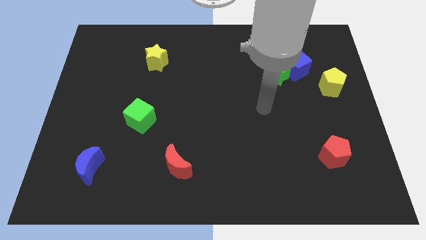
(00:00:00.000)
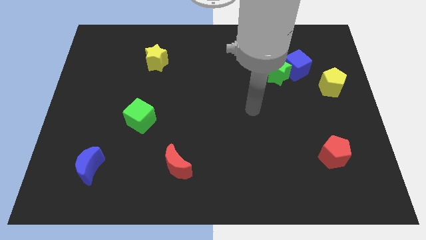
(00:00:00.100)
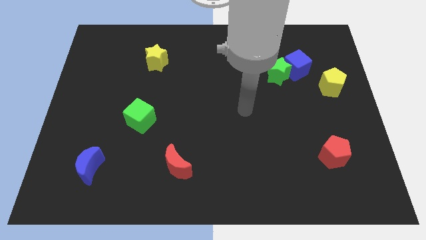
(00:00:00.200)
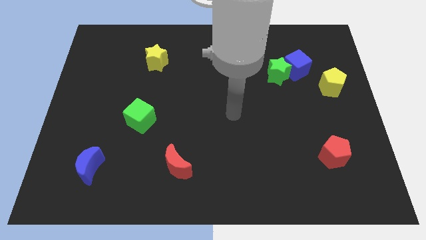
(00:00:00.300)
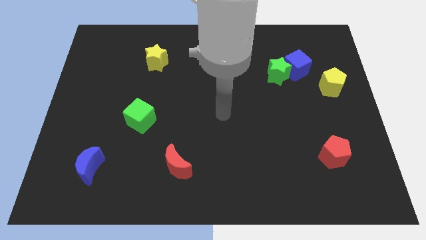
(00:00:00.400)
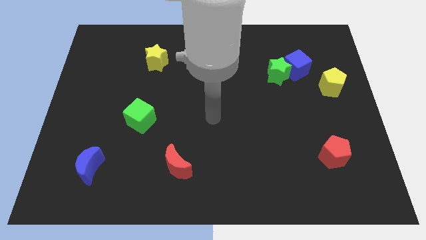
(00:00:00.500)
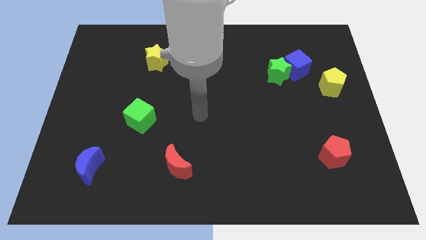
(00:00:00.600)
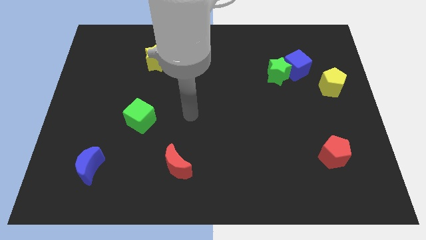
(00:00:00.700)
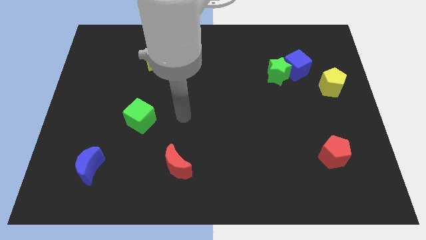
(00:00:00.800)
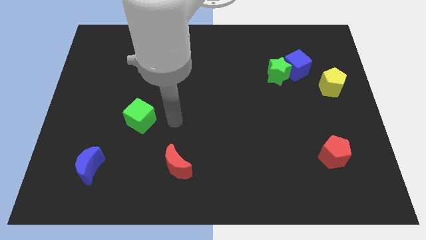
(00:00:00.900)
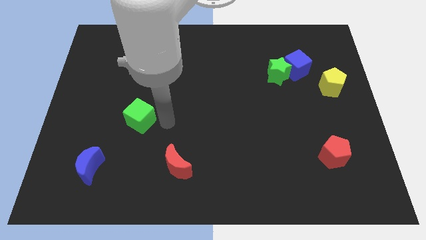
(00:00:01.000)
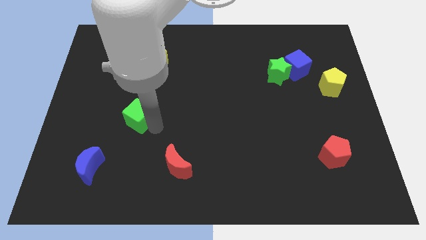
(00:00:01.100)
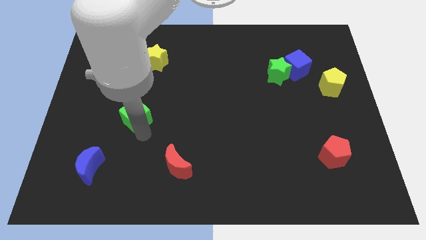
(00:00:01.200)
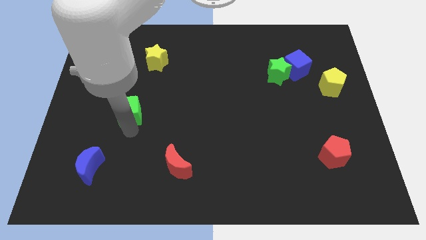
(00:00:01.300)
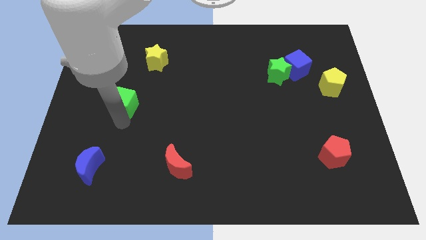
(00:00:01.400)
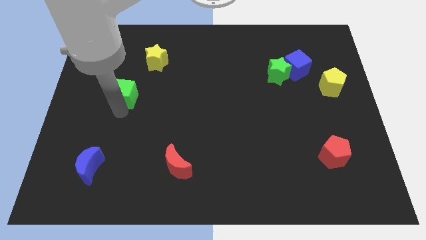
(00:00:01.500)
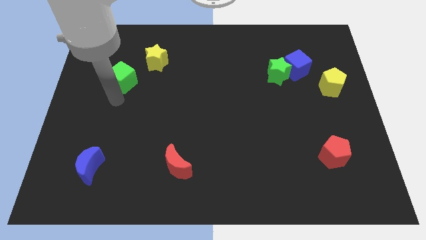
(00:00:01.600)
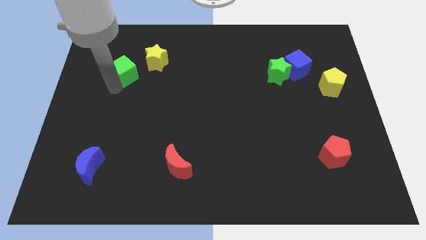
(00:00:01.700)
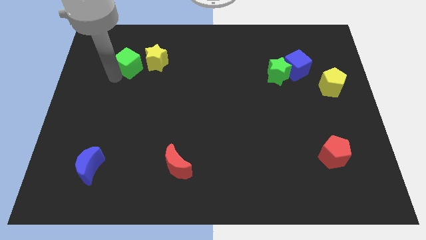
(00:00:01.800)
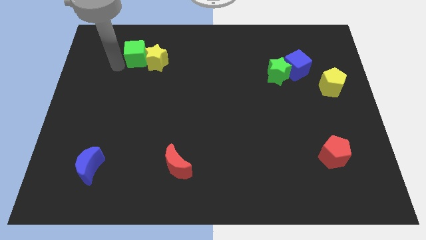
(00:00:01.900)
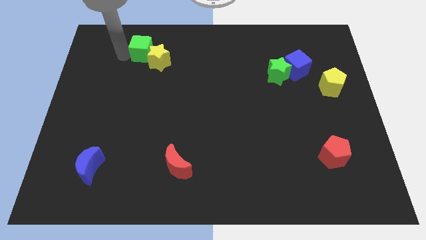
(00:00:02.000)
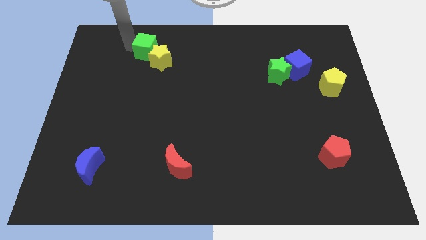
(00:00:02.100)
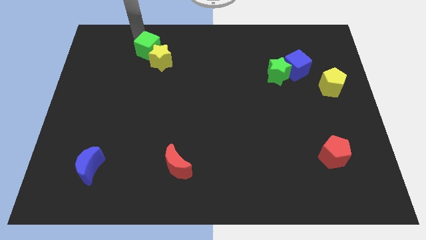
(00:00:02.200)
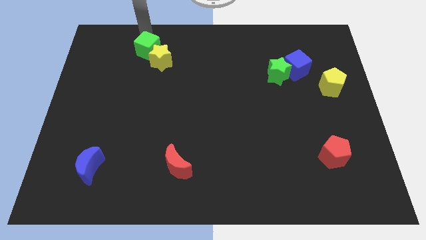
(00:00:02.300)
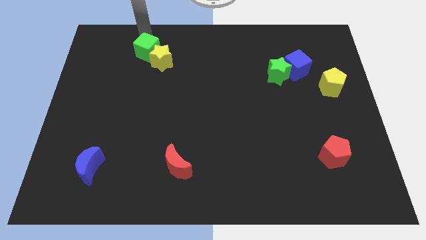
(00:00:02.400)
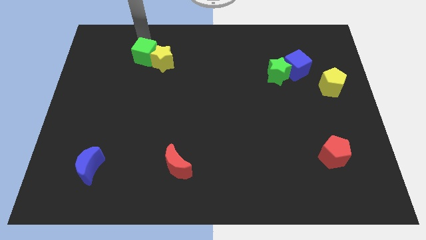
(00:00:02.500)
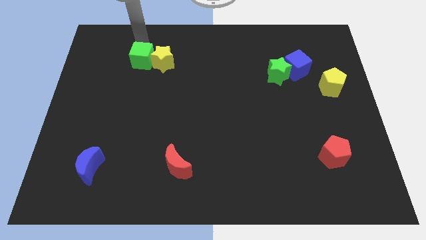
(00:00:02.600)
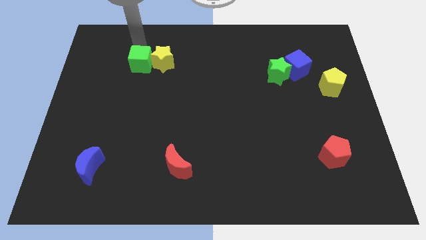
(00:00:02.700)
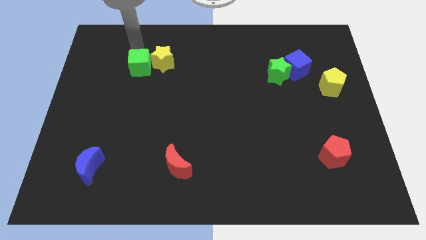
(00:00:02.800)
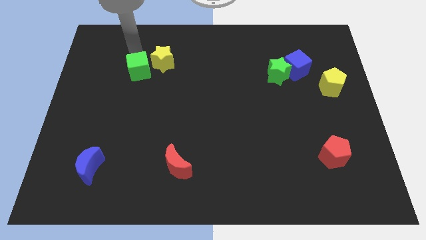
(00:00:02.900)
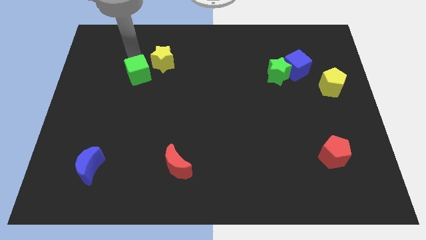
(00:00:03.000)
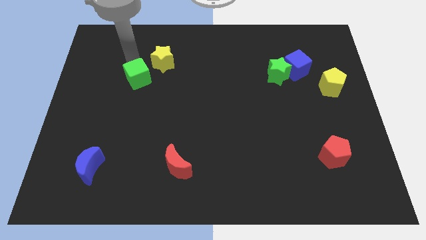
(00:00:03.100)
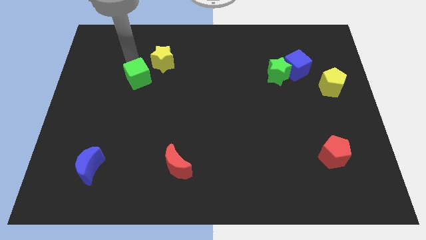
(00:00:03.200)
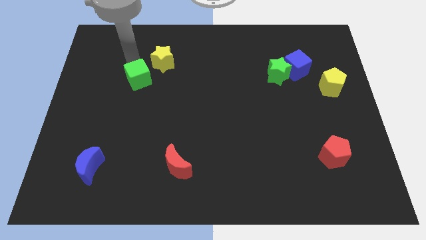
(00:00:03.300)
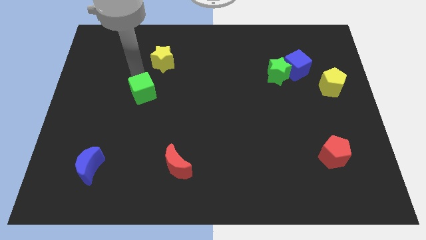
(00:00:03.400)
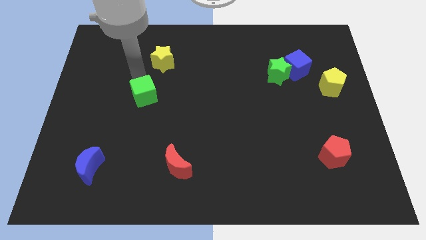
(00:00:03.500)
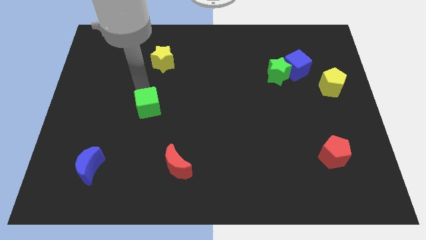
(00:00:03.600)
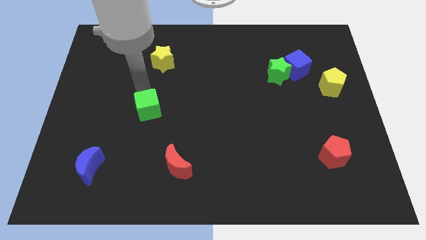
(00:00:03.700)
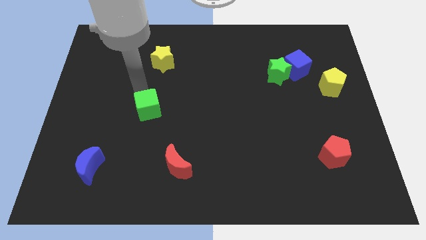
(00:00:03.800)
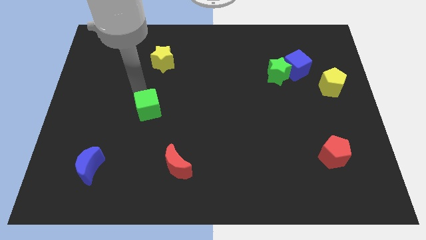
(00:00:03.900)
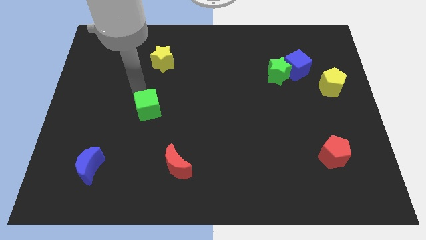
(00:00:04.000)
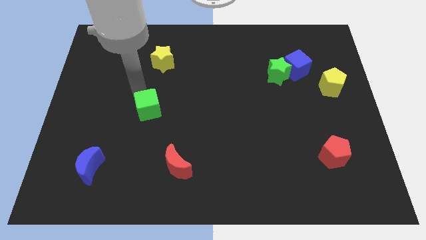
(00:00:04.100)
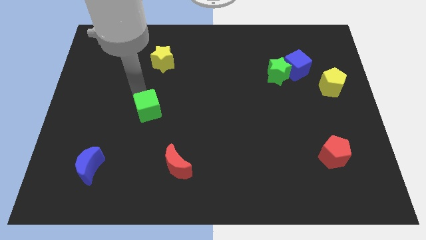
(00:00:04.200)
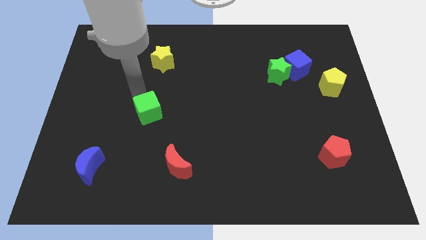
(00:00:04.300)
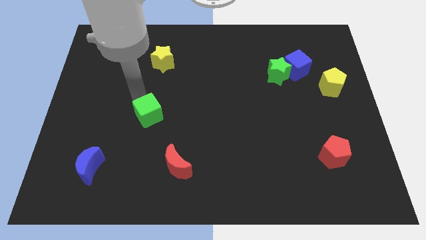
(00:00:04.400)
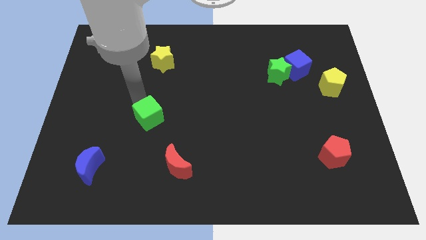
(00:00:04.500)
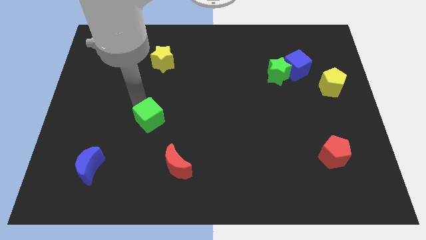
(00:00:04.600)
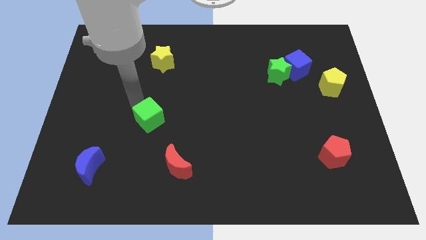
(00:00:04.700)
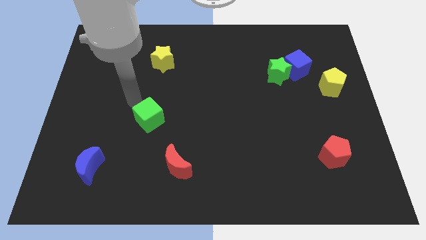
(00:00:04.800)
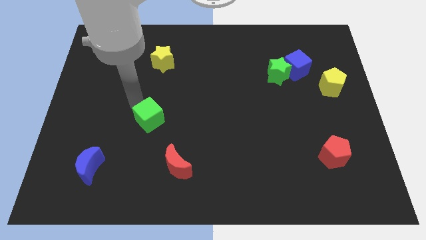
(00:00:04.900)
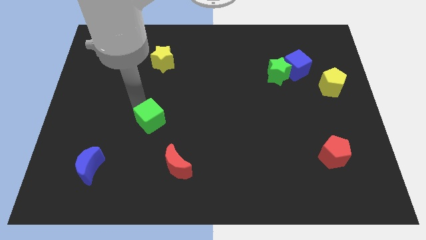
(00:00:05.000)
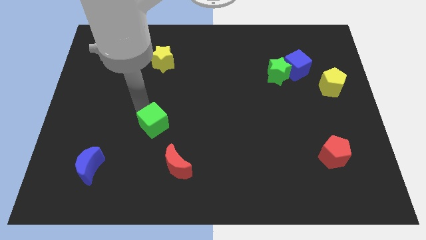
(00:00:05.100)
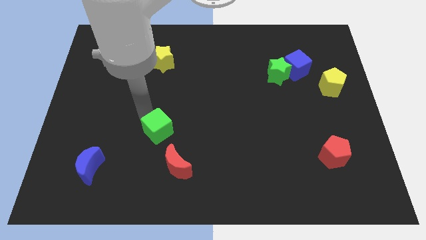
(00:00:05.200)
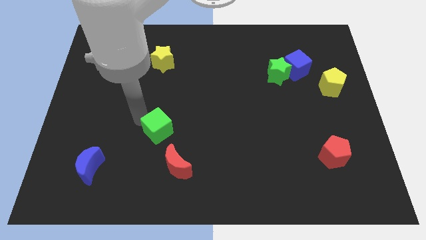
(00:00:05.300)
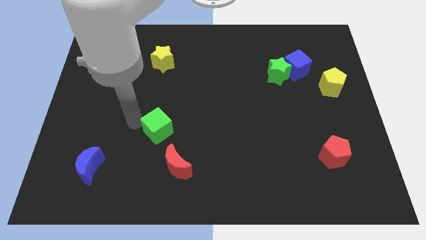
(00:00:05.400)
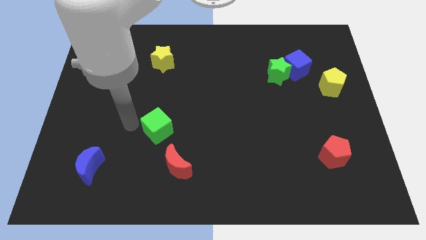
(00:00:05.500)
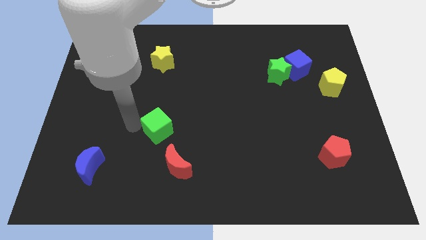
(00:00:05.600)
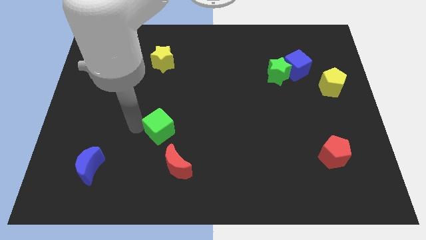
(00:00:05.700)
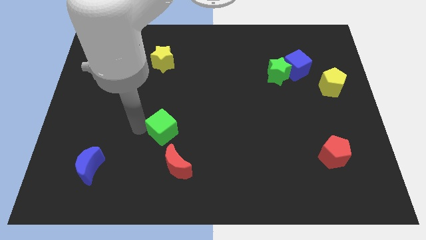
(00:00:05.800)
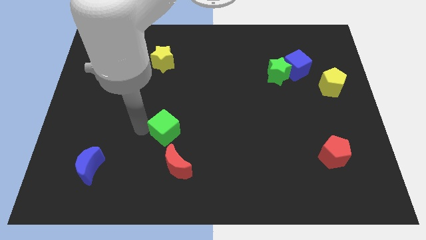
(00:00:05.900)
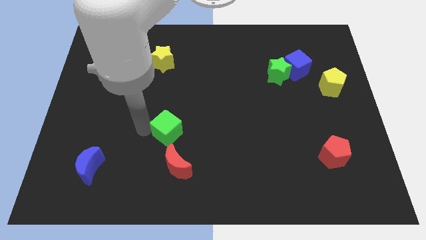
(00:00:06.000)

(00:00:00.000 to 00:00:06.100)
move the green cube downwards and right somewhat

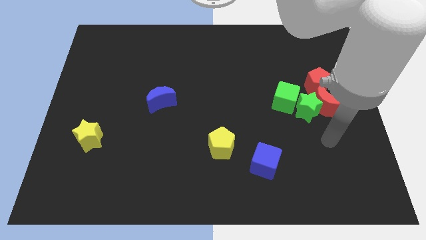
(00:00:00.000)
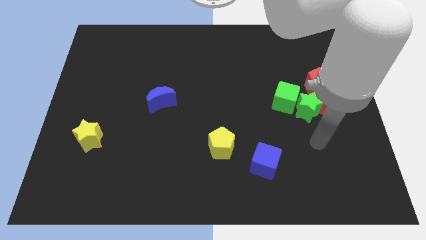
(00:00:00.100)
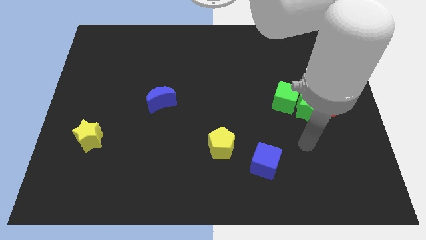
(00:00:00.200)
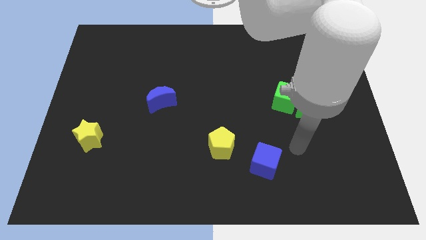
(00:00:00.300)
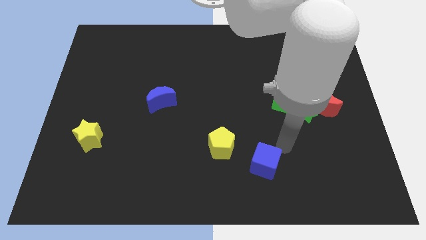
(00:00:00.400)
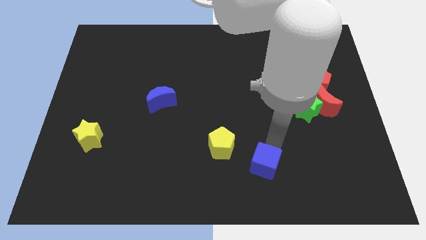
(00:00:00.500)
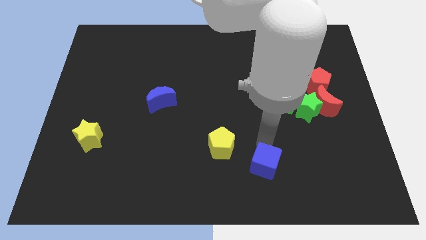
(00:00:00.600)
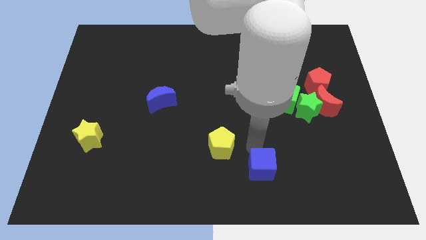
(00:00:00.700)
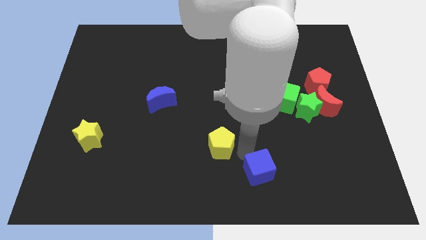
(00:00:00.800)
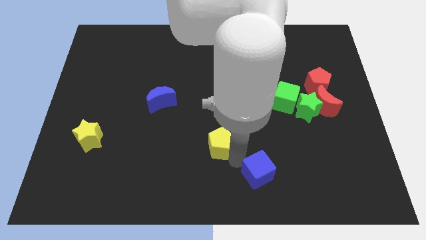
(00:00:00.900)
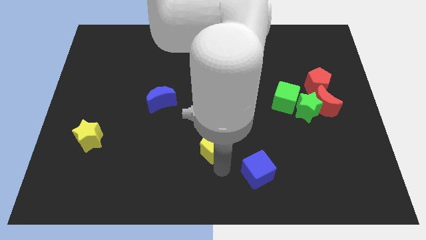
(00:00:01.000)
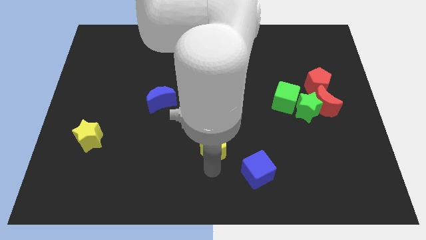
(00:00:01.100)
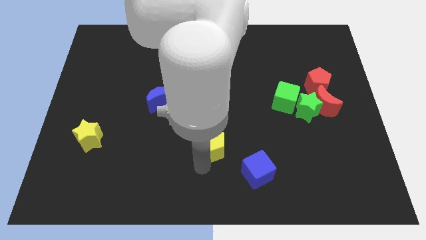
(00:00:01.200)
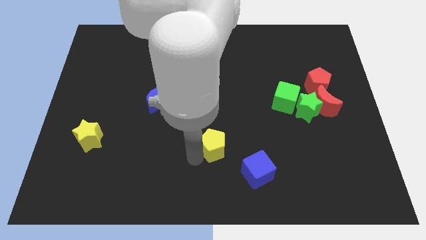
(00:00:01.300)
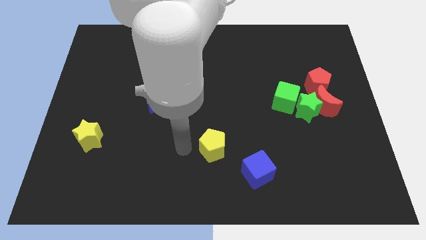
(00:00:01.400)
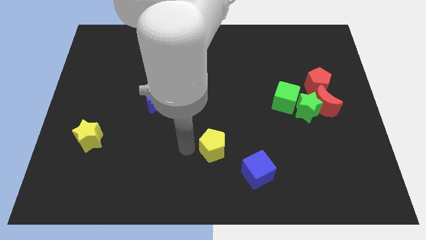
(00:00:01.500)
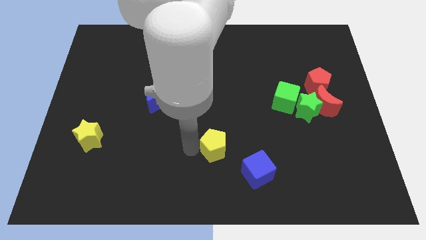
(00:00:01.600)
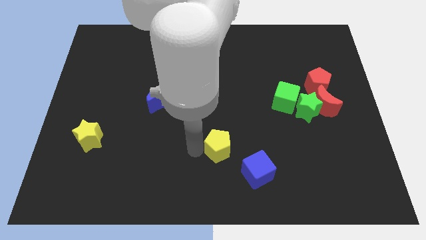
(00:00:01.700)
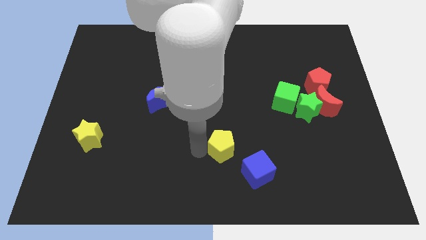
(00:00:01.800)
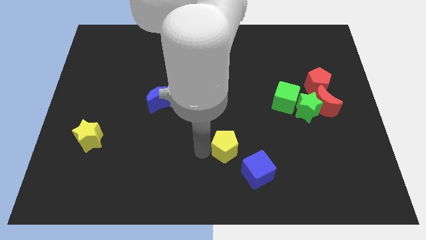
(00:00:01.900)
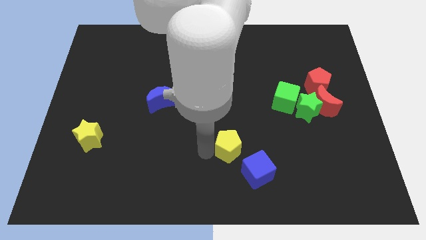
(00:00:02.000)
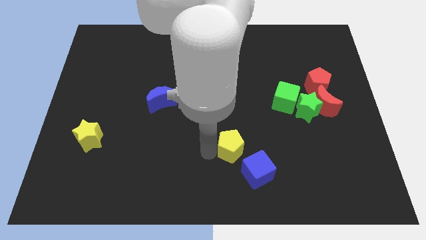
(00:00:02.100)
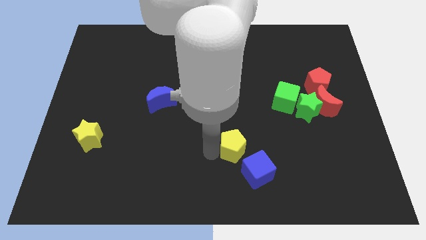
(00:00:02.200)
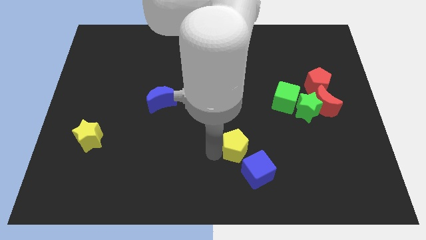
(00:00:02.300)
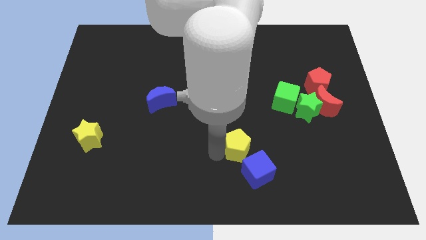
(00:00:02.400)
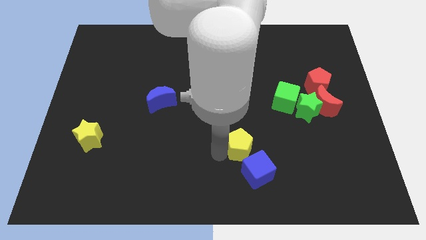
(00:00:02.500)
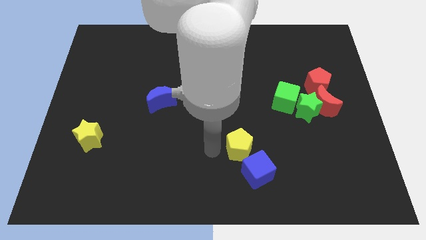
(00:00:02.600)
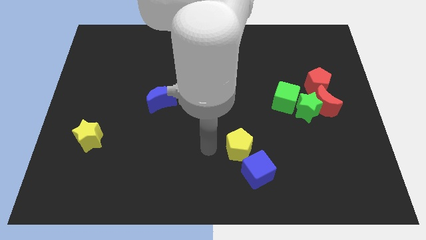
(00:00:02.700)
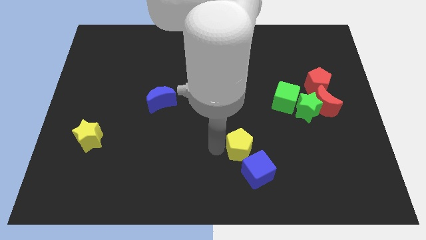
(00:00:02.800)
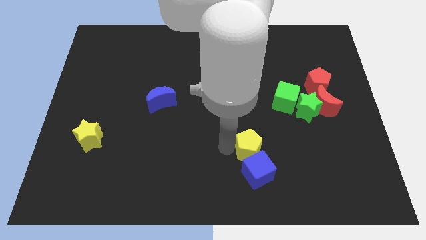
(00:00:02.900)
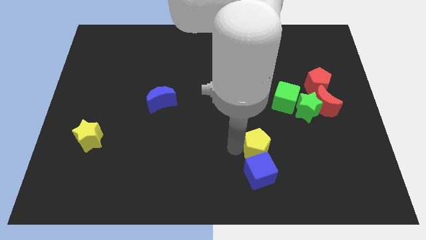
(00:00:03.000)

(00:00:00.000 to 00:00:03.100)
slide the yellow pentagon right slightly
